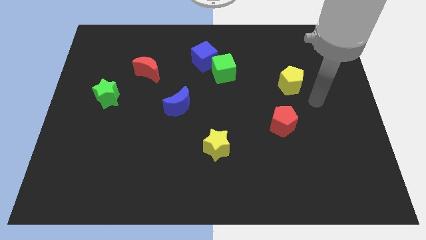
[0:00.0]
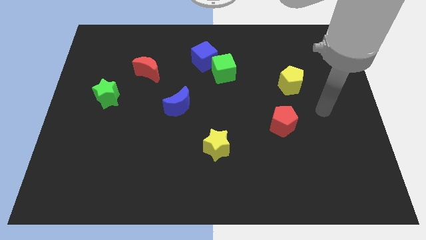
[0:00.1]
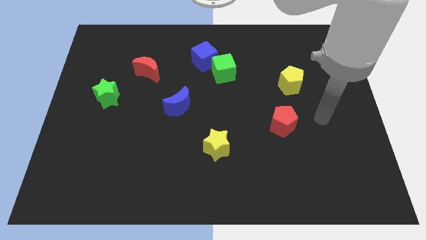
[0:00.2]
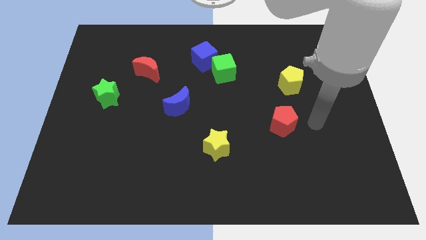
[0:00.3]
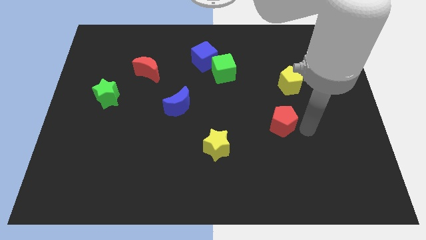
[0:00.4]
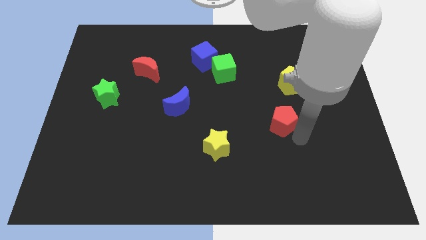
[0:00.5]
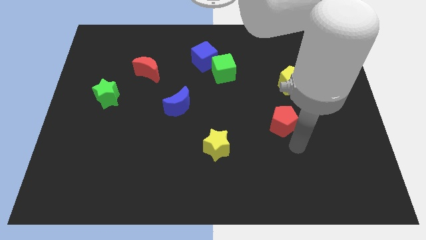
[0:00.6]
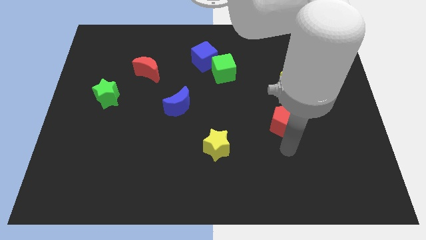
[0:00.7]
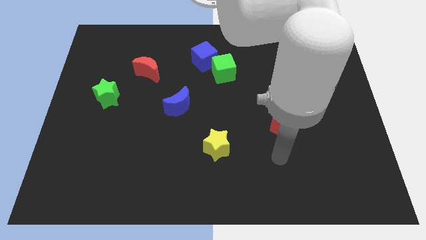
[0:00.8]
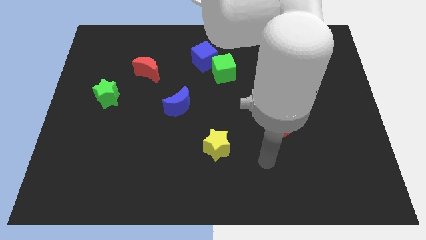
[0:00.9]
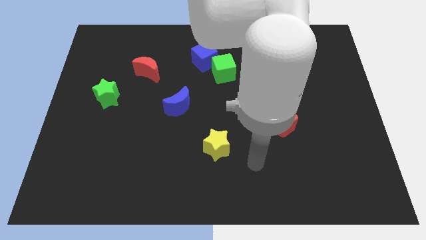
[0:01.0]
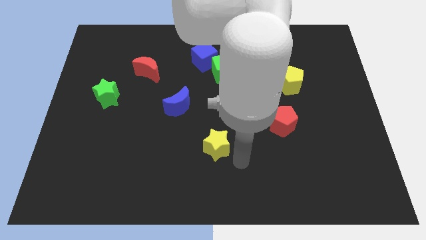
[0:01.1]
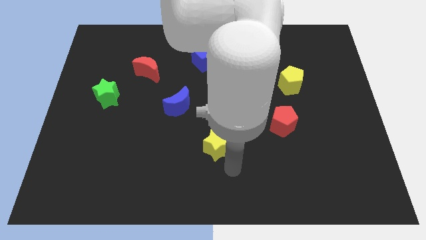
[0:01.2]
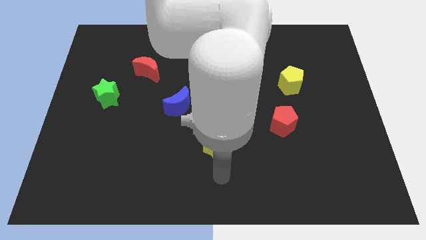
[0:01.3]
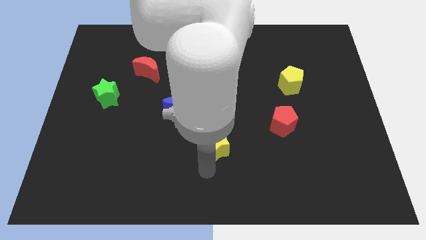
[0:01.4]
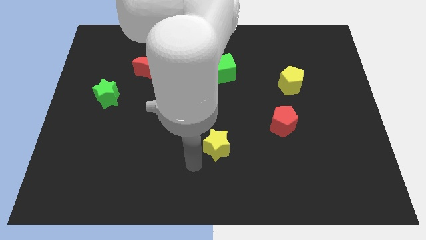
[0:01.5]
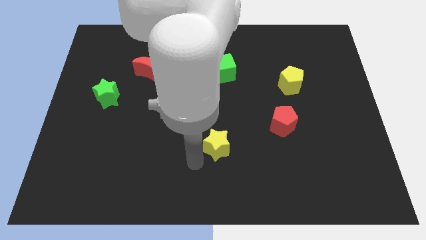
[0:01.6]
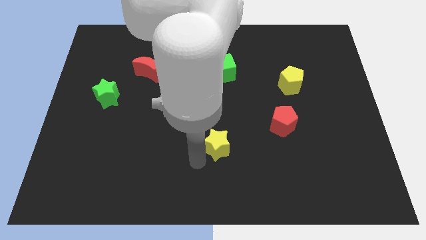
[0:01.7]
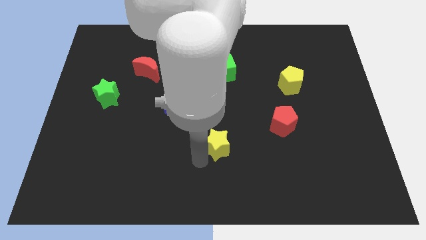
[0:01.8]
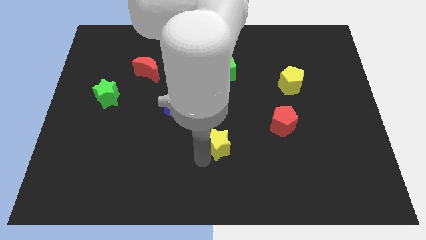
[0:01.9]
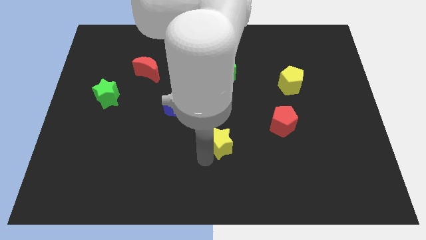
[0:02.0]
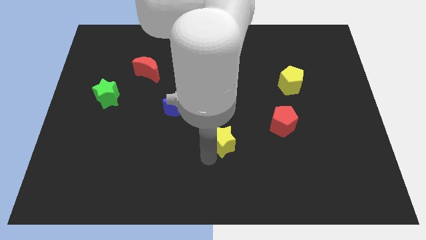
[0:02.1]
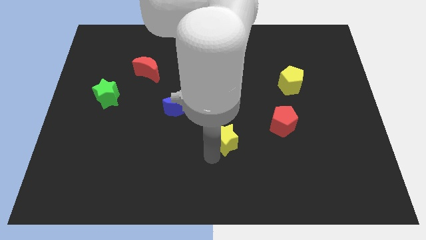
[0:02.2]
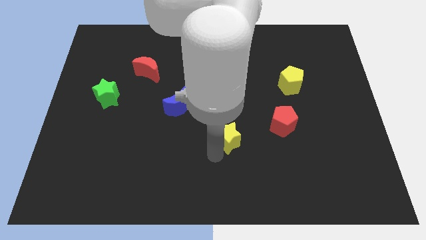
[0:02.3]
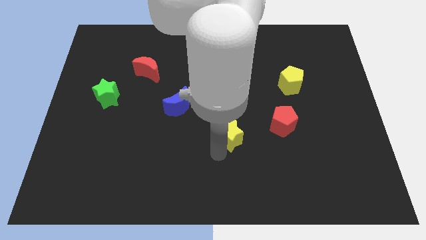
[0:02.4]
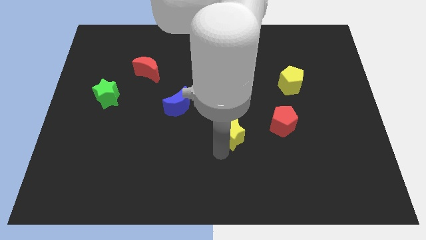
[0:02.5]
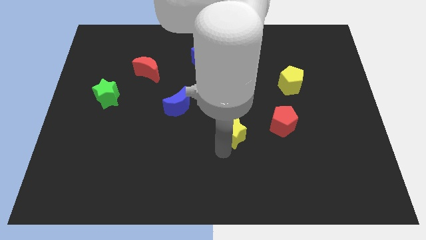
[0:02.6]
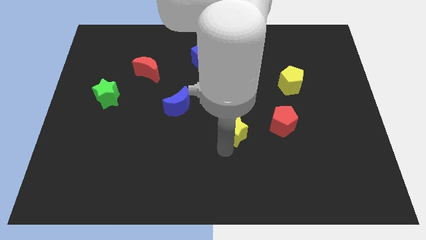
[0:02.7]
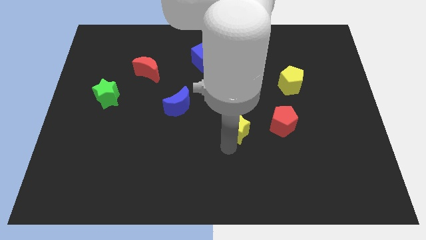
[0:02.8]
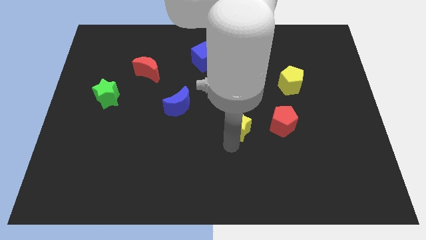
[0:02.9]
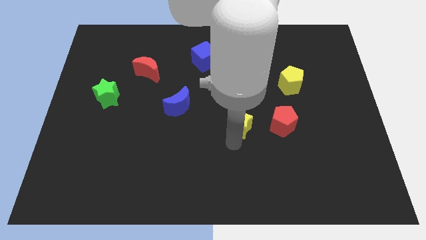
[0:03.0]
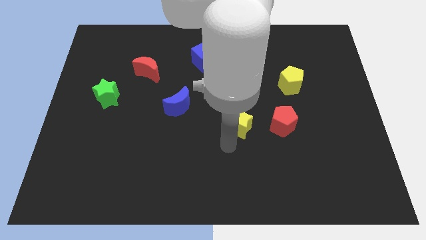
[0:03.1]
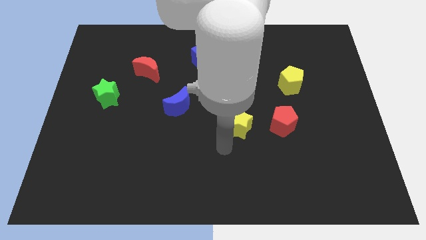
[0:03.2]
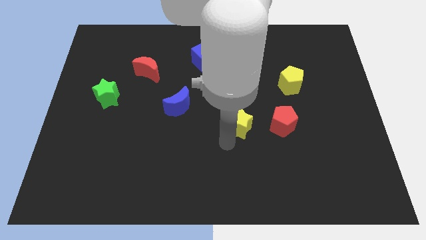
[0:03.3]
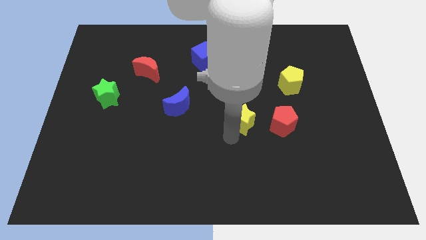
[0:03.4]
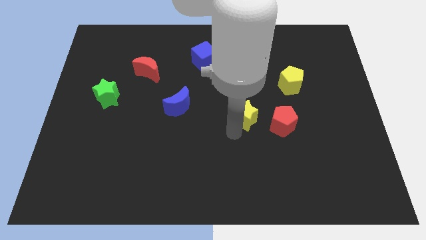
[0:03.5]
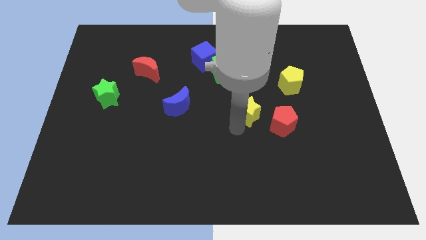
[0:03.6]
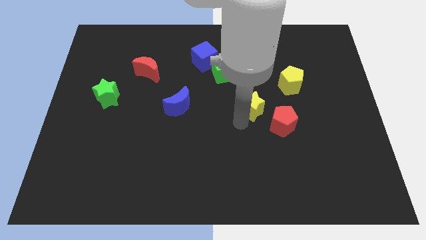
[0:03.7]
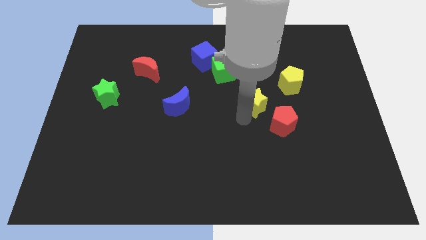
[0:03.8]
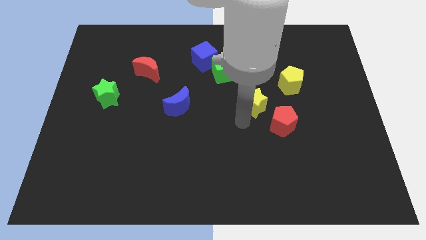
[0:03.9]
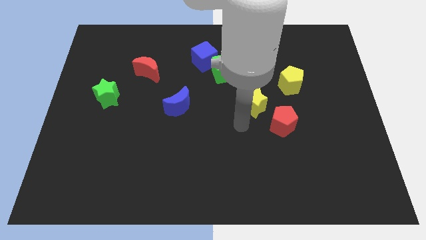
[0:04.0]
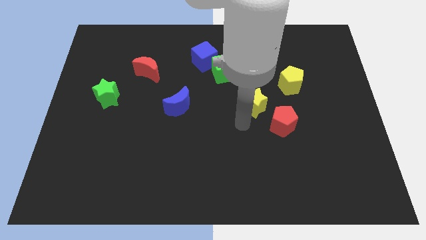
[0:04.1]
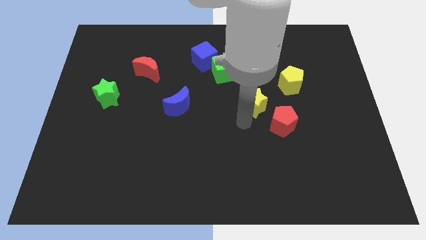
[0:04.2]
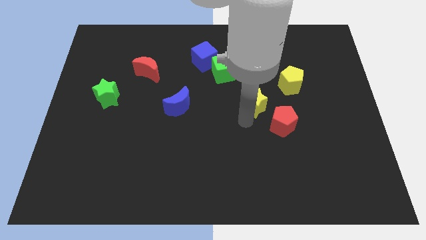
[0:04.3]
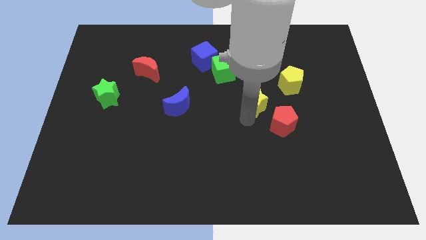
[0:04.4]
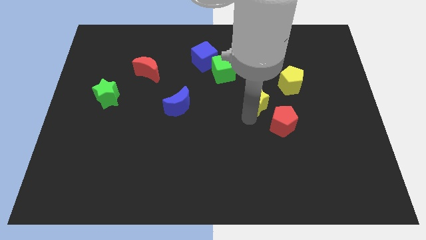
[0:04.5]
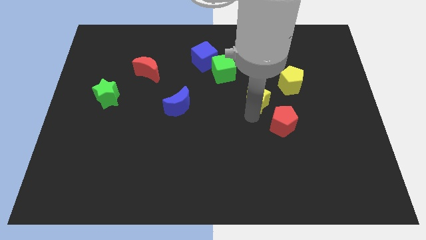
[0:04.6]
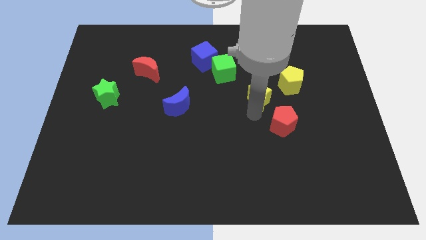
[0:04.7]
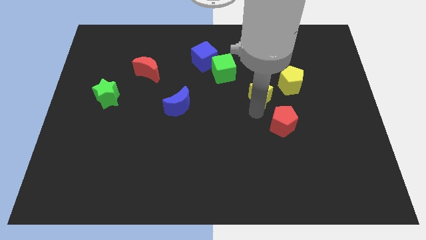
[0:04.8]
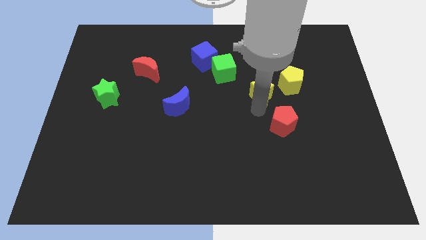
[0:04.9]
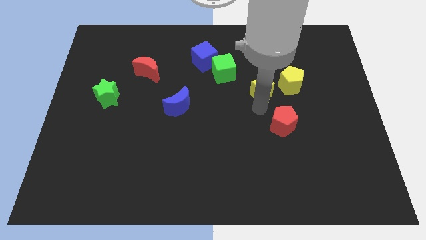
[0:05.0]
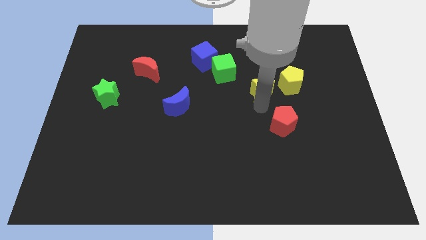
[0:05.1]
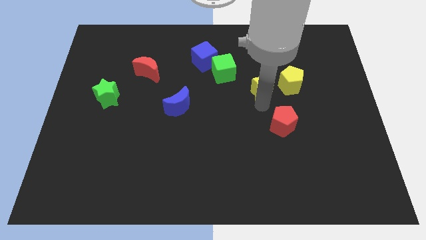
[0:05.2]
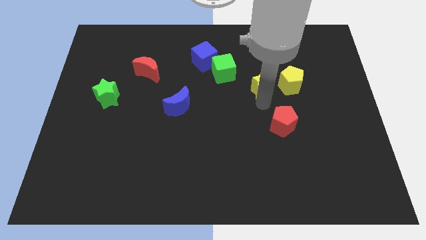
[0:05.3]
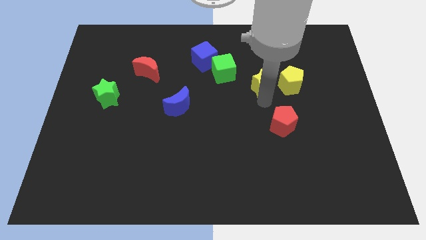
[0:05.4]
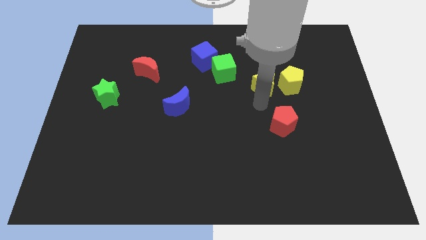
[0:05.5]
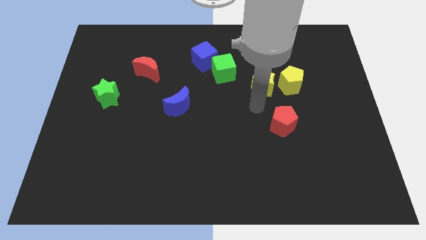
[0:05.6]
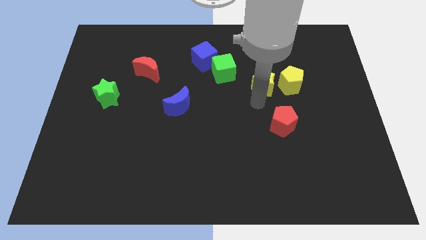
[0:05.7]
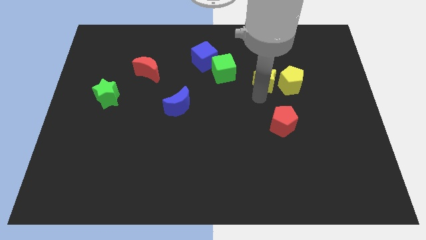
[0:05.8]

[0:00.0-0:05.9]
slide the yellow star diagonally up and to the left of the yellow pentagon

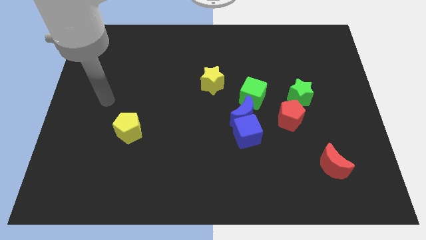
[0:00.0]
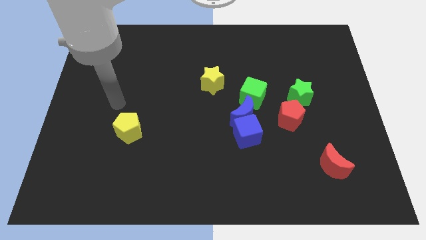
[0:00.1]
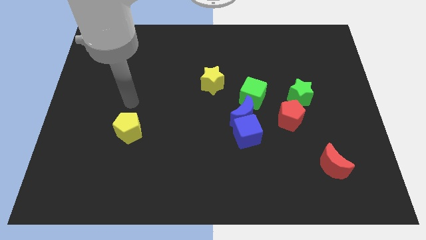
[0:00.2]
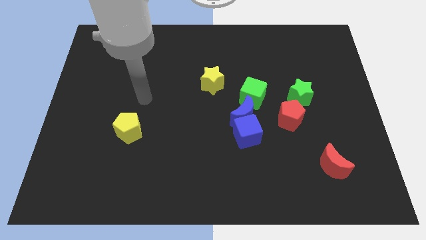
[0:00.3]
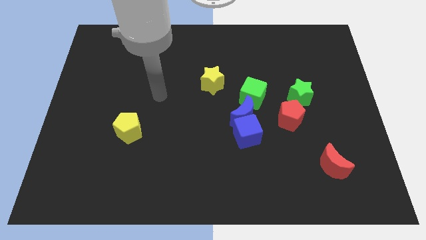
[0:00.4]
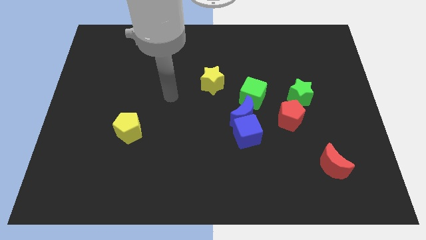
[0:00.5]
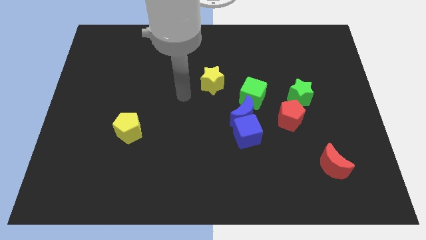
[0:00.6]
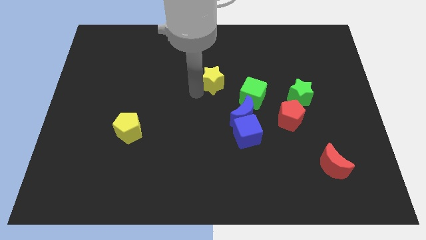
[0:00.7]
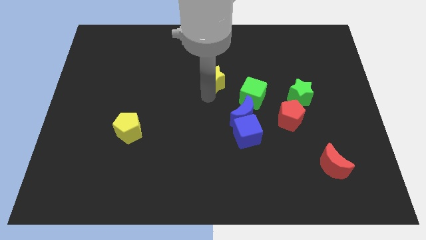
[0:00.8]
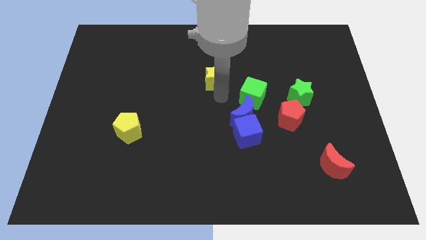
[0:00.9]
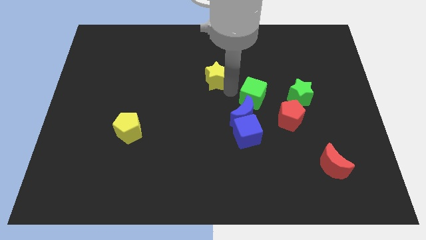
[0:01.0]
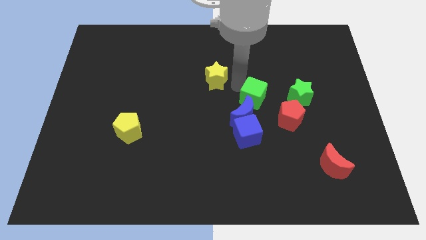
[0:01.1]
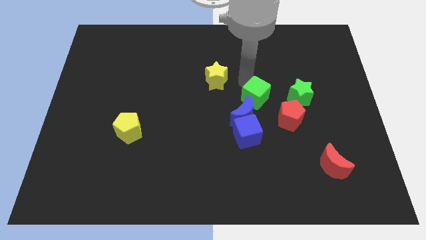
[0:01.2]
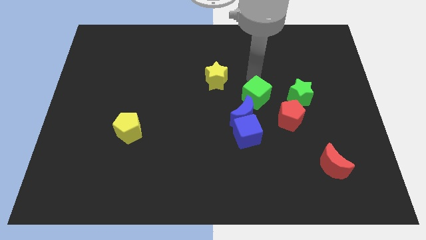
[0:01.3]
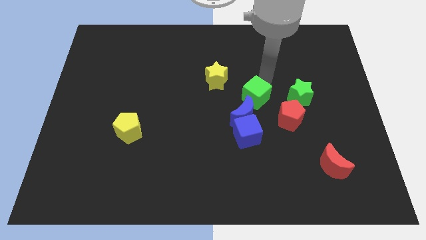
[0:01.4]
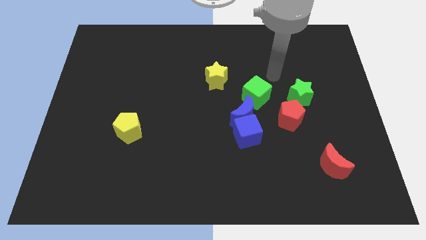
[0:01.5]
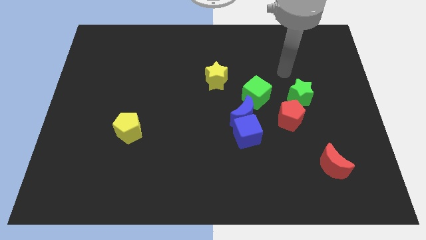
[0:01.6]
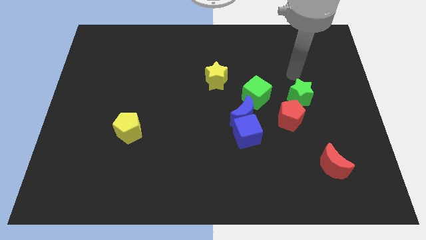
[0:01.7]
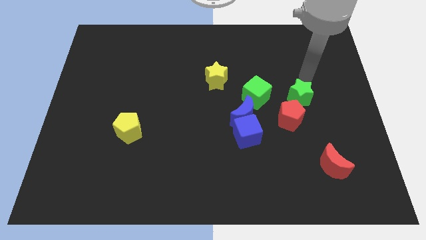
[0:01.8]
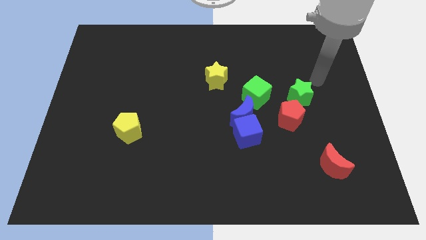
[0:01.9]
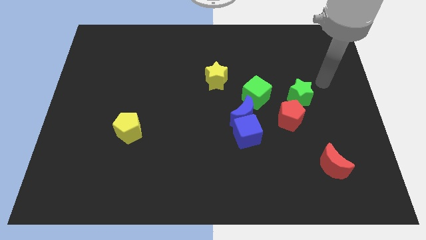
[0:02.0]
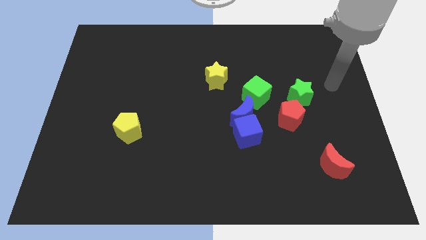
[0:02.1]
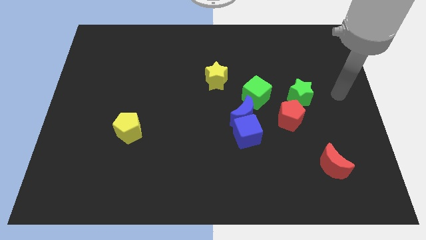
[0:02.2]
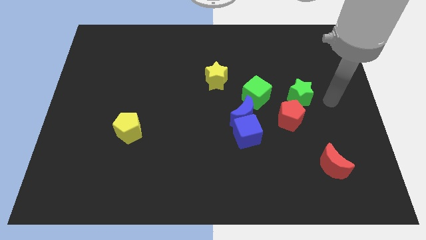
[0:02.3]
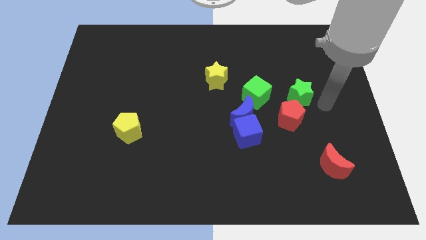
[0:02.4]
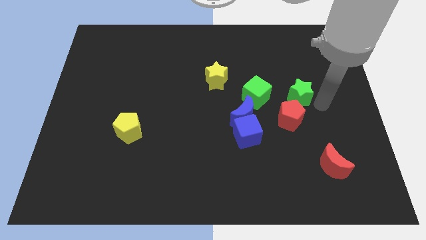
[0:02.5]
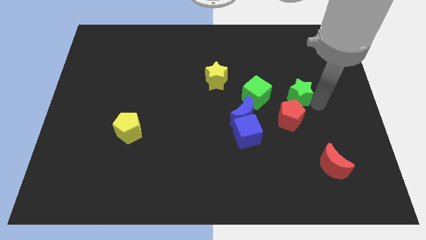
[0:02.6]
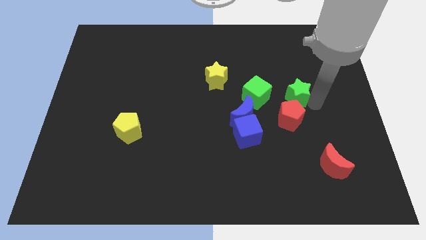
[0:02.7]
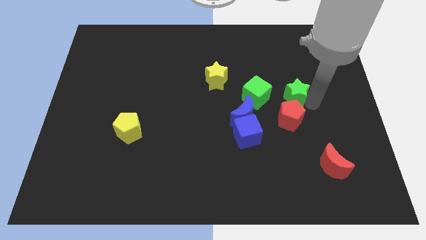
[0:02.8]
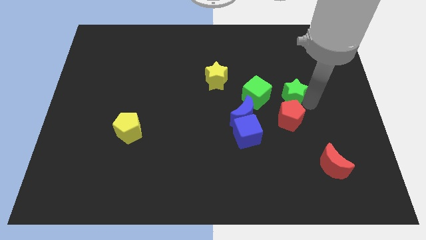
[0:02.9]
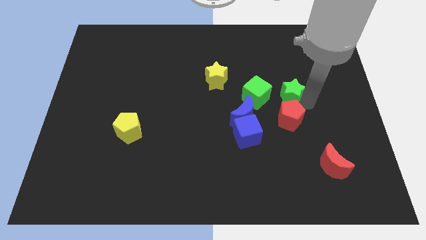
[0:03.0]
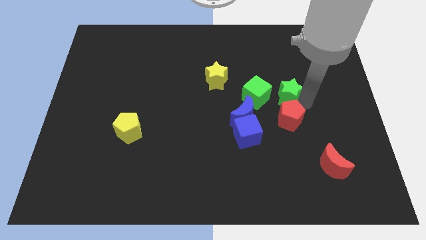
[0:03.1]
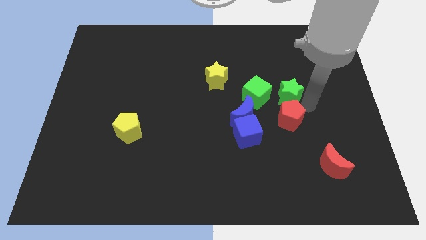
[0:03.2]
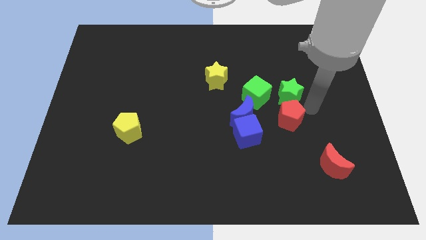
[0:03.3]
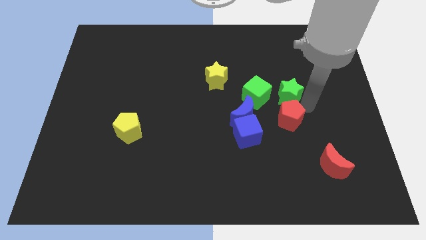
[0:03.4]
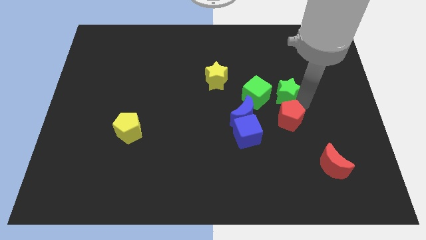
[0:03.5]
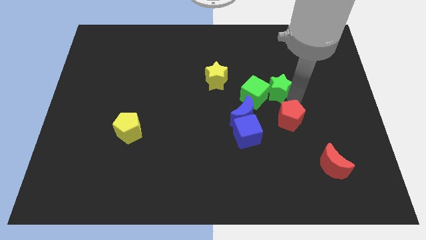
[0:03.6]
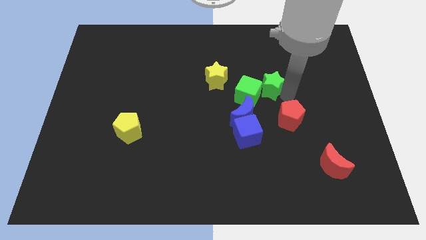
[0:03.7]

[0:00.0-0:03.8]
push the green star to the right side of the yellow star
